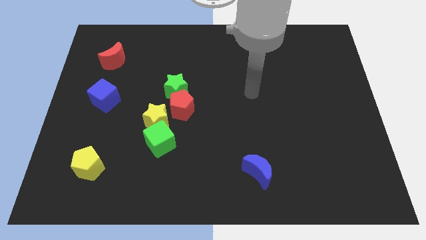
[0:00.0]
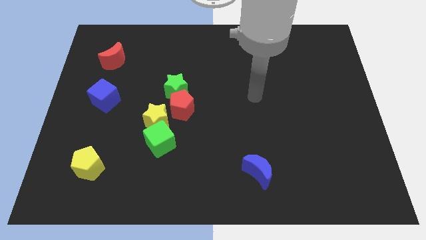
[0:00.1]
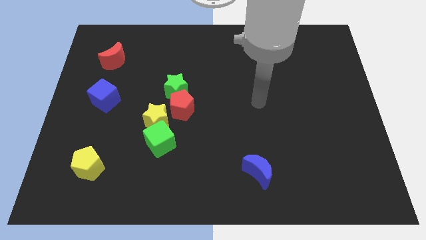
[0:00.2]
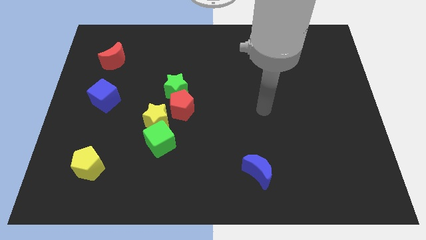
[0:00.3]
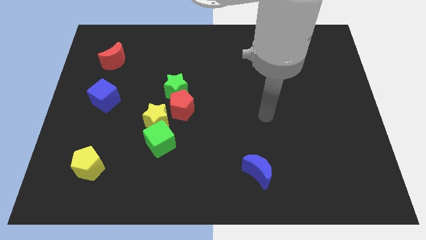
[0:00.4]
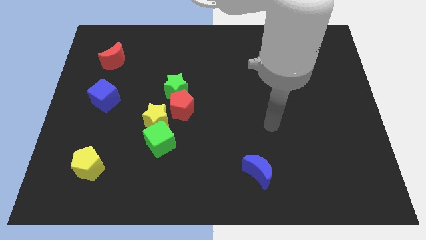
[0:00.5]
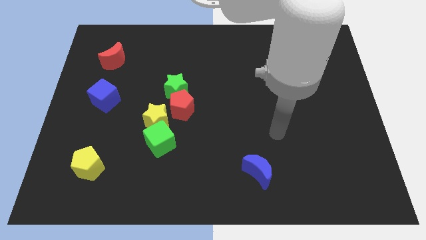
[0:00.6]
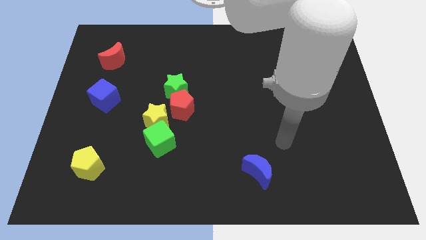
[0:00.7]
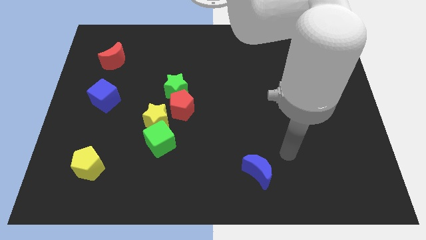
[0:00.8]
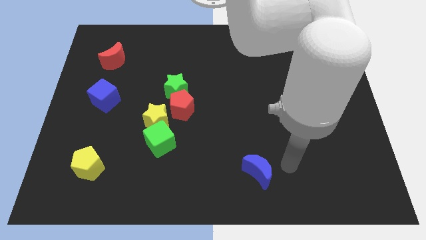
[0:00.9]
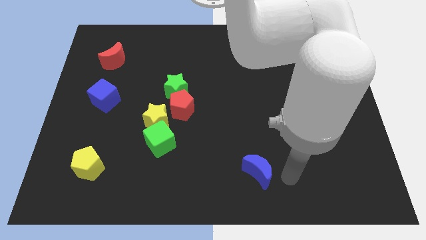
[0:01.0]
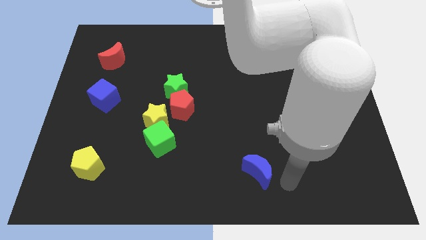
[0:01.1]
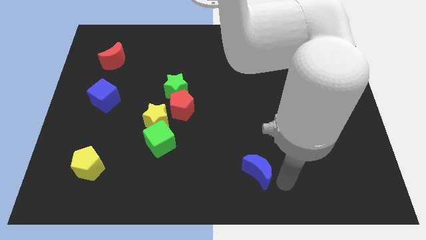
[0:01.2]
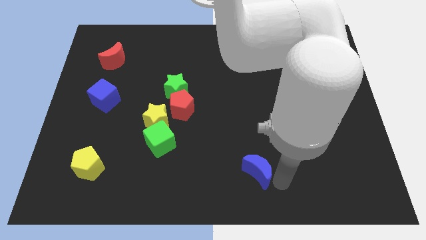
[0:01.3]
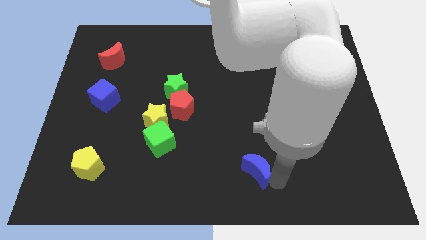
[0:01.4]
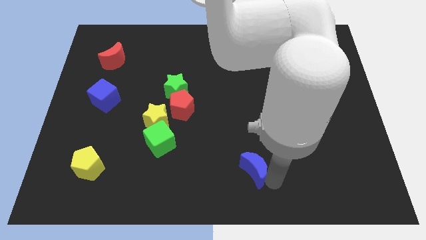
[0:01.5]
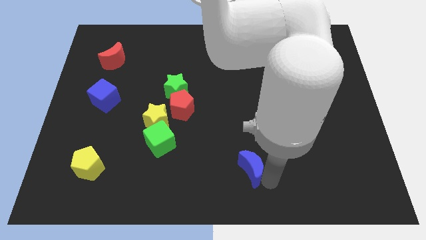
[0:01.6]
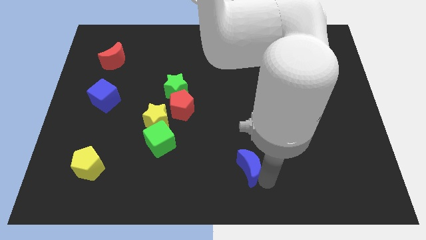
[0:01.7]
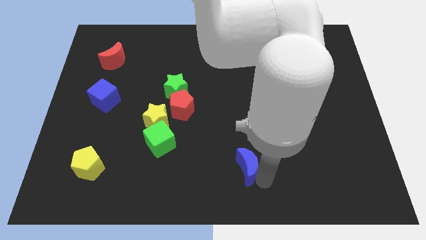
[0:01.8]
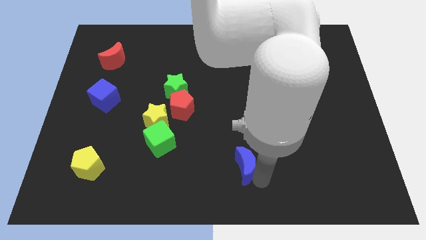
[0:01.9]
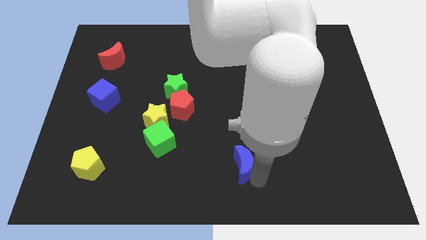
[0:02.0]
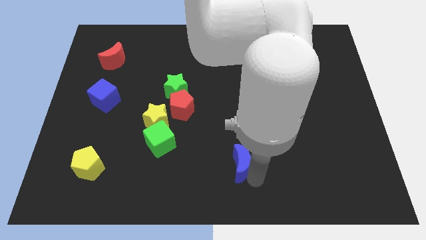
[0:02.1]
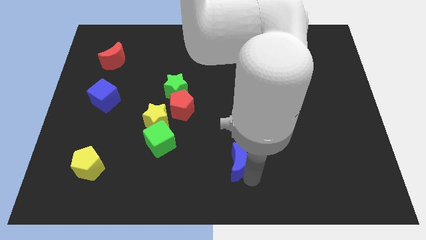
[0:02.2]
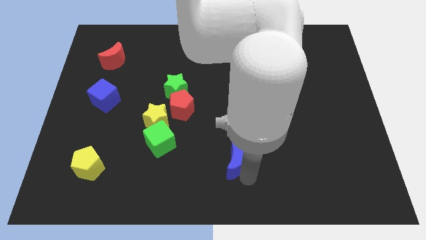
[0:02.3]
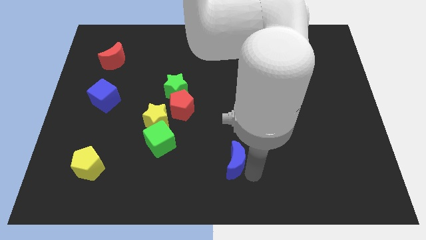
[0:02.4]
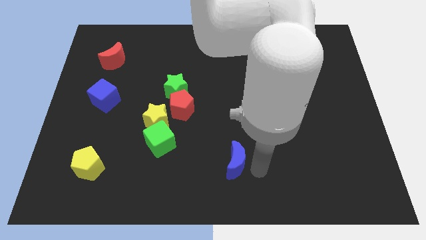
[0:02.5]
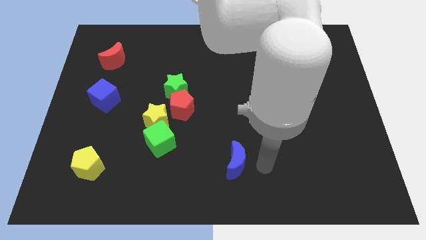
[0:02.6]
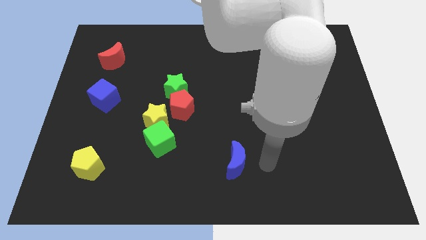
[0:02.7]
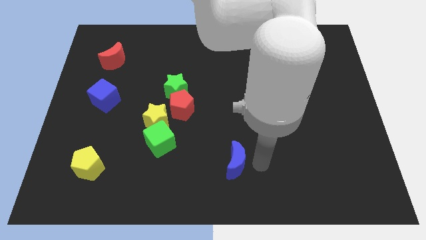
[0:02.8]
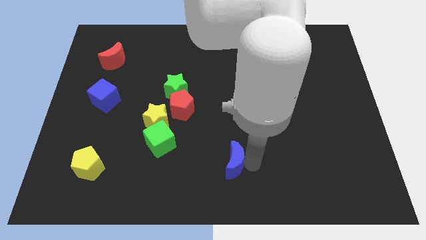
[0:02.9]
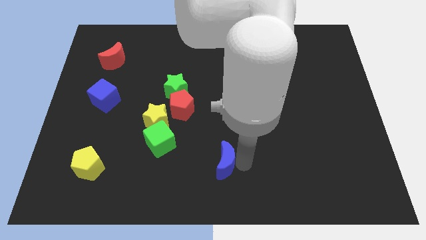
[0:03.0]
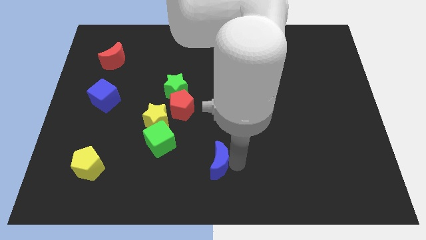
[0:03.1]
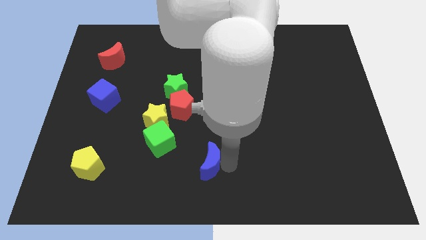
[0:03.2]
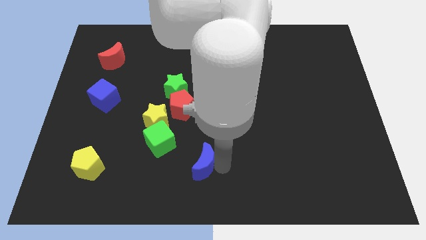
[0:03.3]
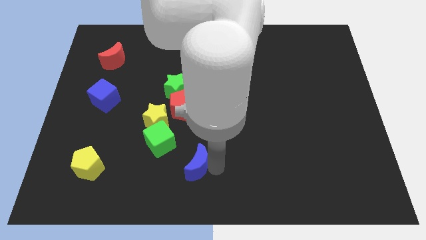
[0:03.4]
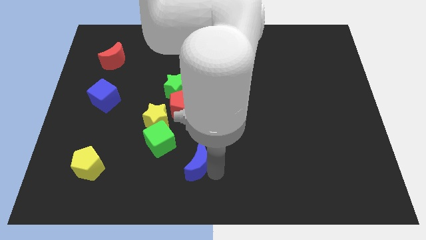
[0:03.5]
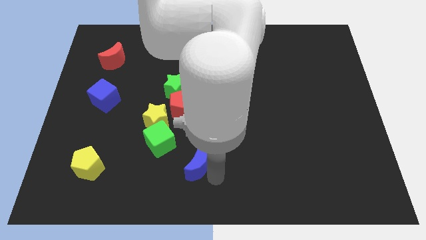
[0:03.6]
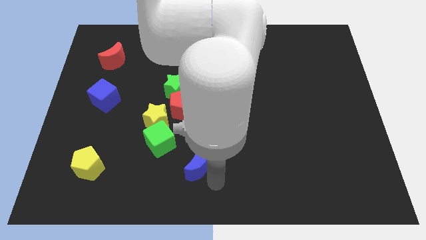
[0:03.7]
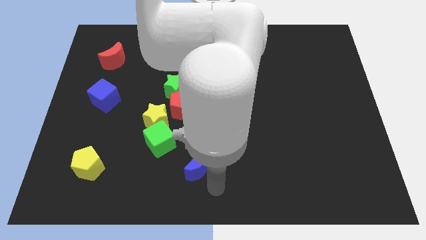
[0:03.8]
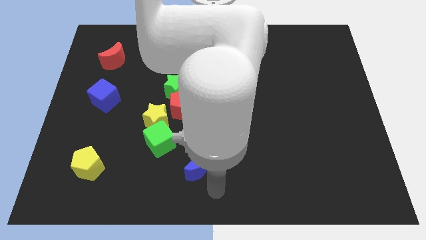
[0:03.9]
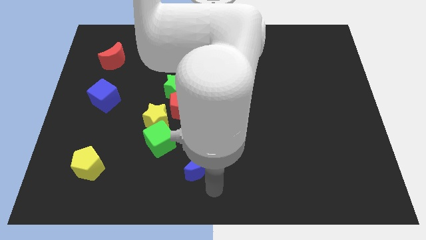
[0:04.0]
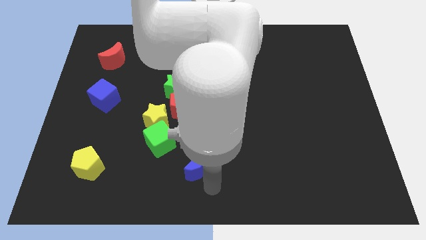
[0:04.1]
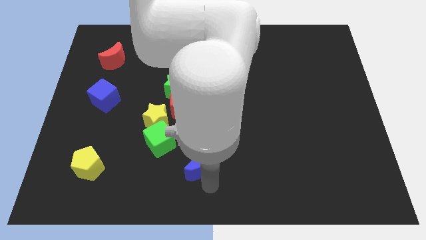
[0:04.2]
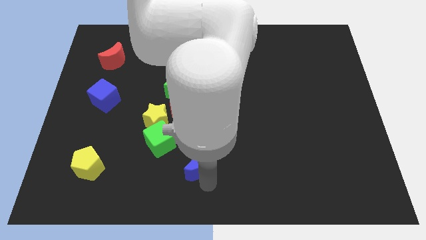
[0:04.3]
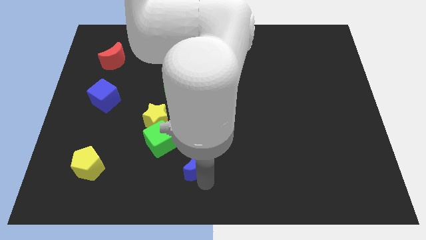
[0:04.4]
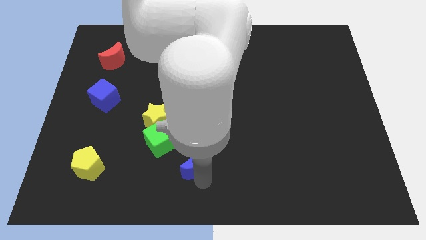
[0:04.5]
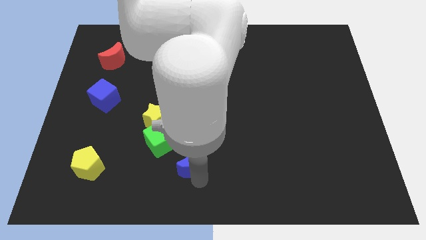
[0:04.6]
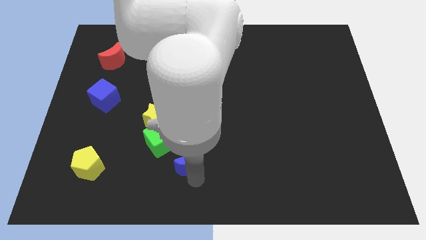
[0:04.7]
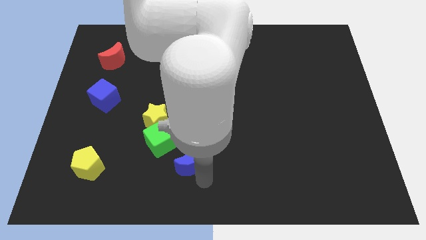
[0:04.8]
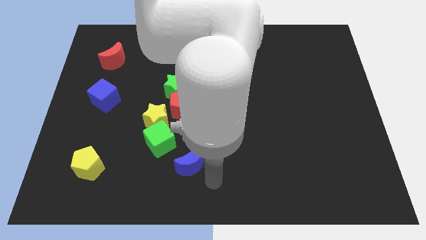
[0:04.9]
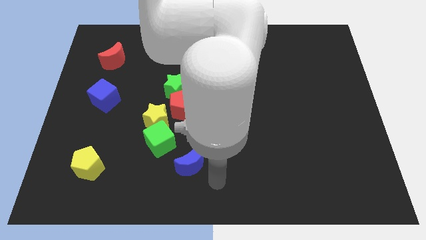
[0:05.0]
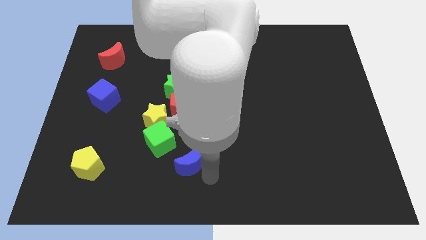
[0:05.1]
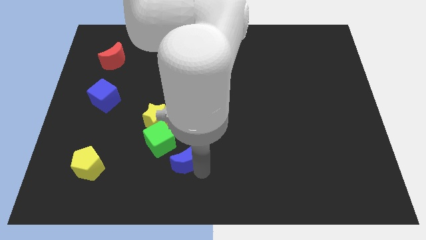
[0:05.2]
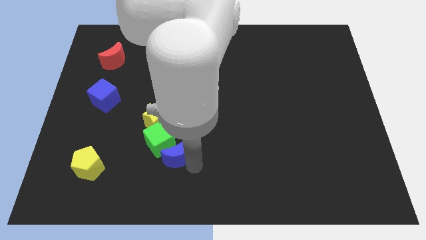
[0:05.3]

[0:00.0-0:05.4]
slide the blue moon to the green cube

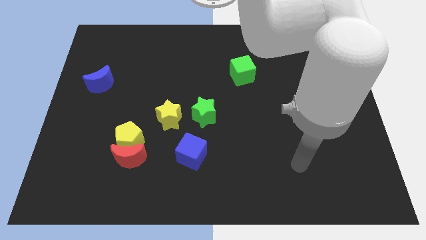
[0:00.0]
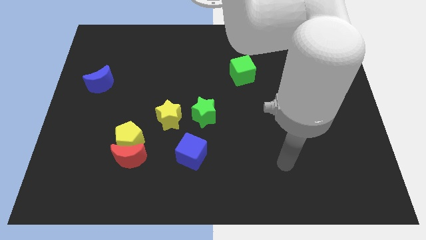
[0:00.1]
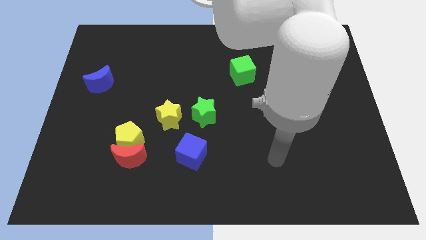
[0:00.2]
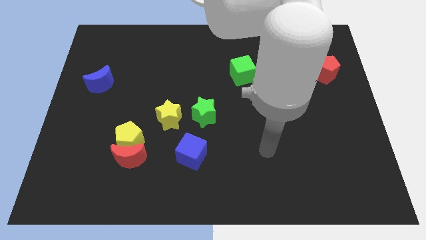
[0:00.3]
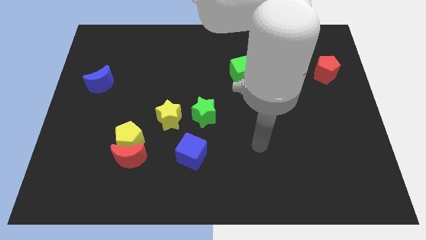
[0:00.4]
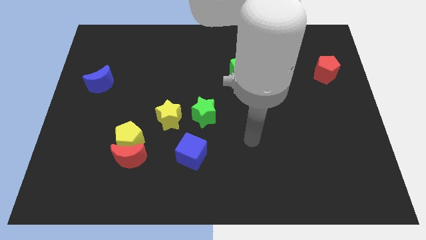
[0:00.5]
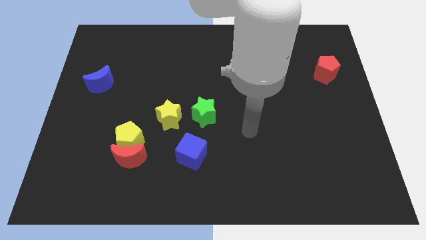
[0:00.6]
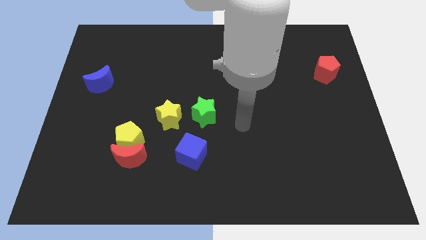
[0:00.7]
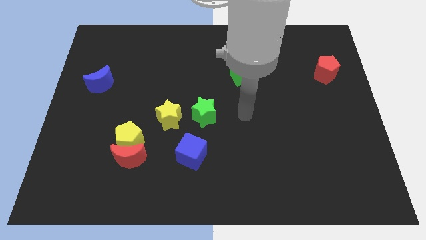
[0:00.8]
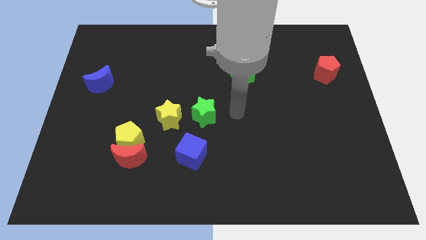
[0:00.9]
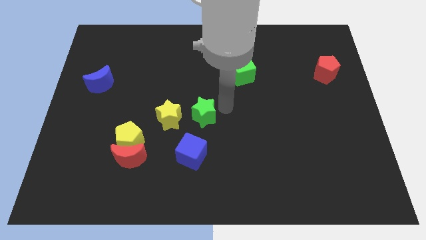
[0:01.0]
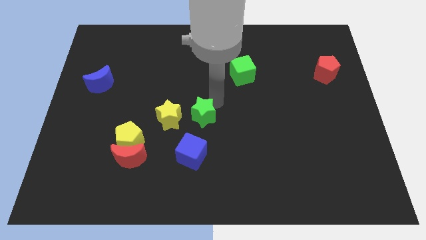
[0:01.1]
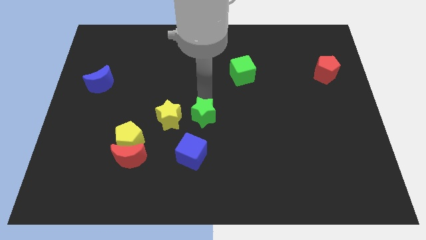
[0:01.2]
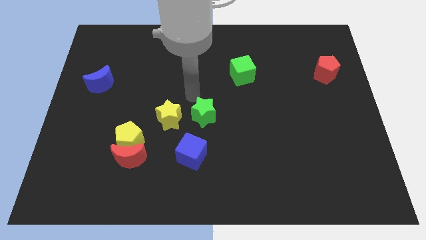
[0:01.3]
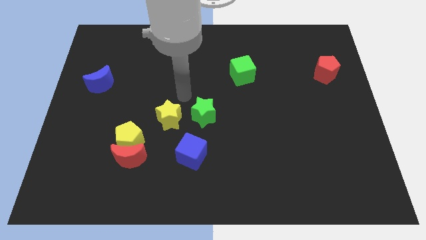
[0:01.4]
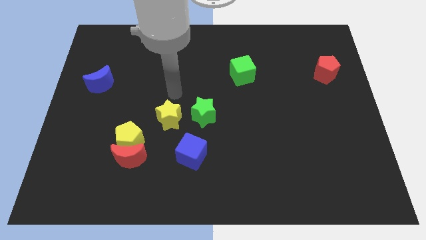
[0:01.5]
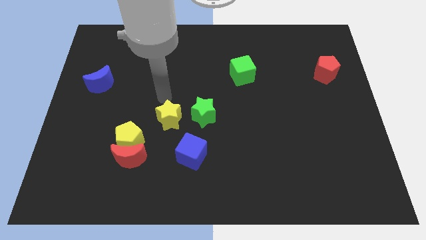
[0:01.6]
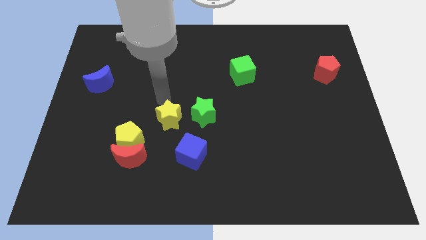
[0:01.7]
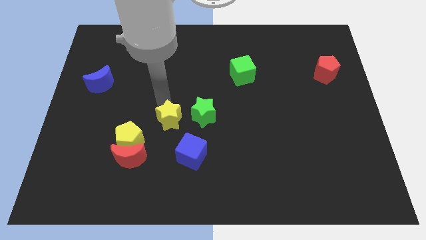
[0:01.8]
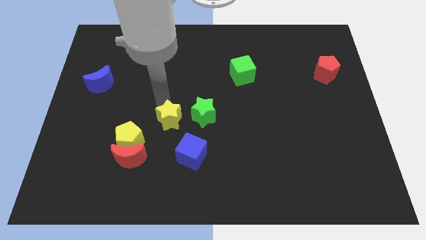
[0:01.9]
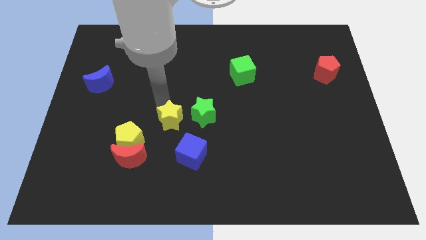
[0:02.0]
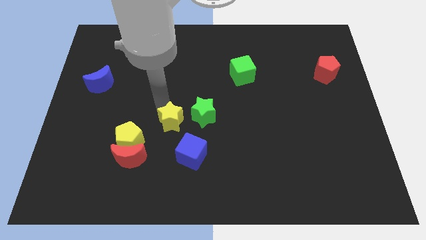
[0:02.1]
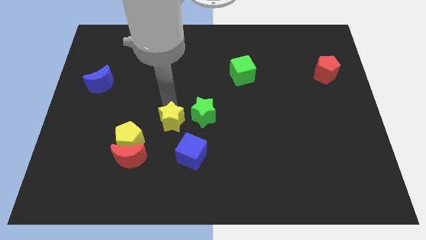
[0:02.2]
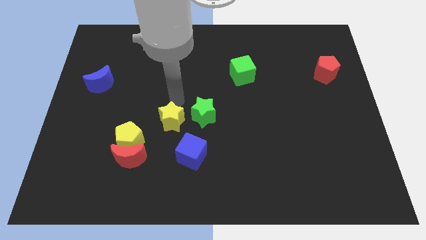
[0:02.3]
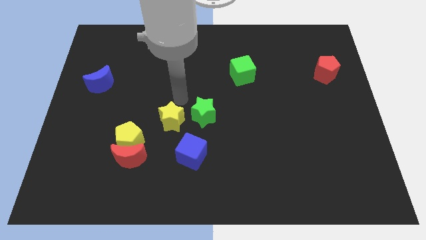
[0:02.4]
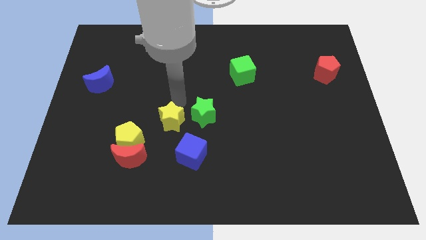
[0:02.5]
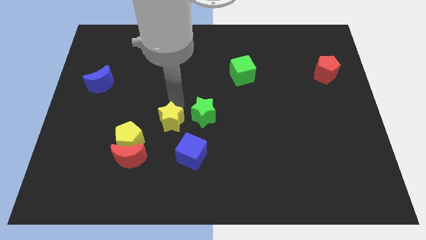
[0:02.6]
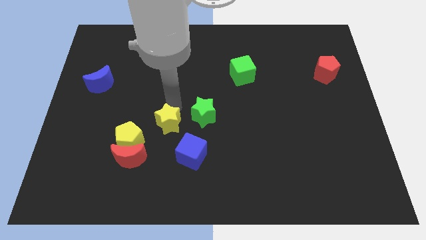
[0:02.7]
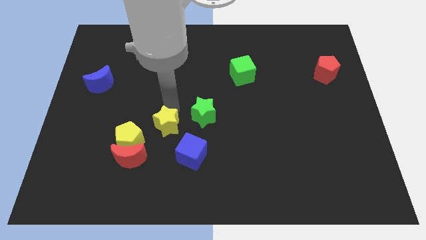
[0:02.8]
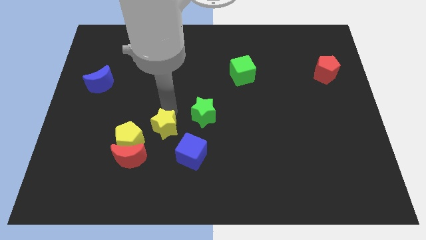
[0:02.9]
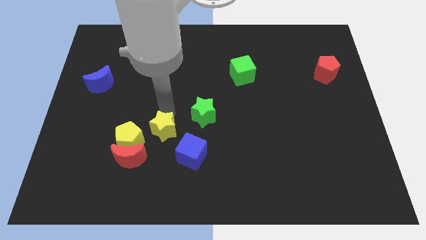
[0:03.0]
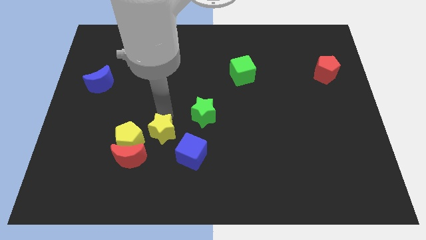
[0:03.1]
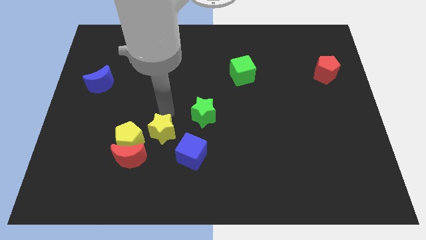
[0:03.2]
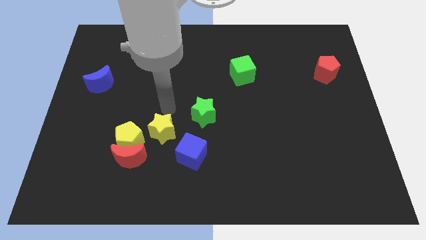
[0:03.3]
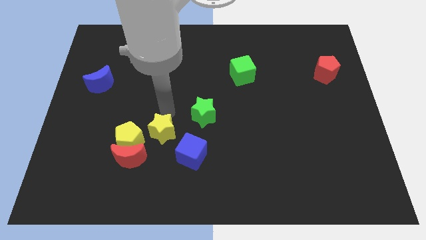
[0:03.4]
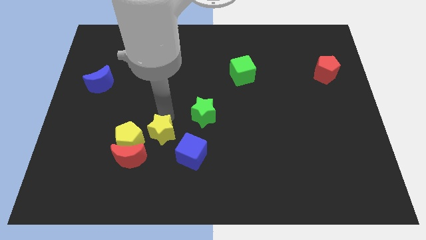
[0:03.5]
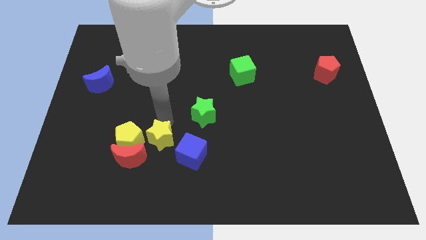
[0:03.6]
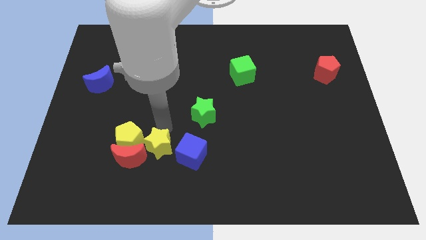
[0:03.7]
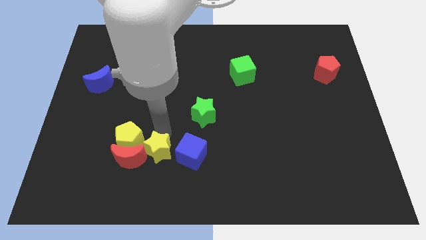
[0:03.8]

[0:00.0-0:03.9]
put the yellow star close to the red moon
